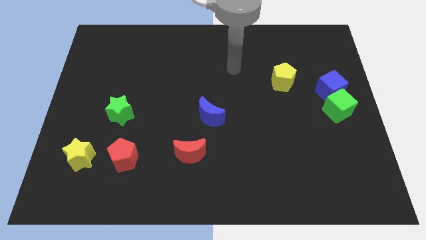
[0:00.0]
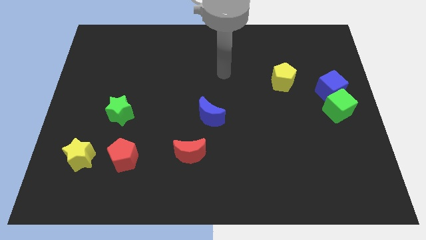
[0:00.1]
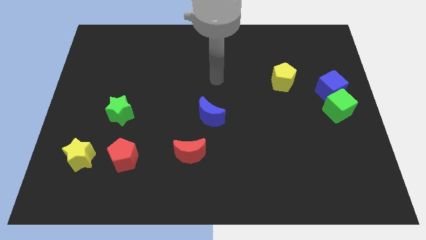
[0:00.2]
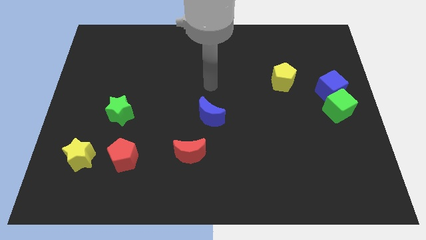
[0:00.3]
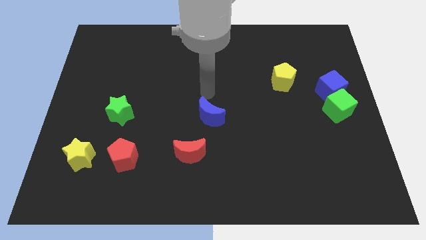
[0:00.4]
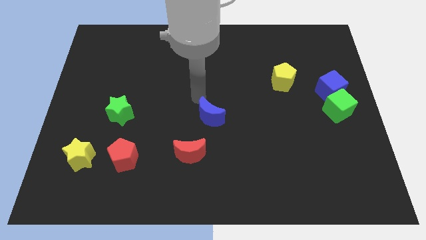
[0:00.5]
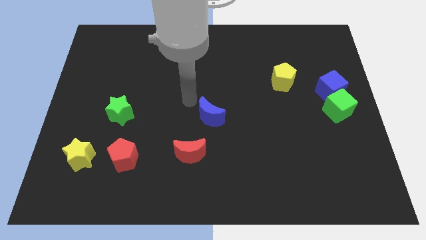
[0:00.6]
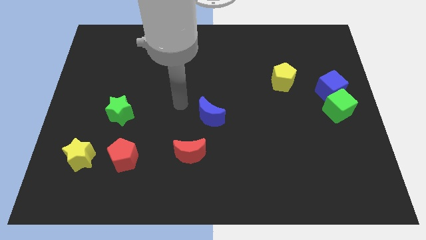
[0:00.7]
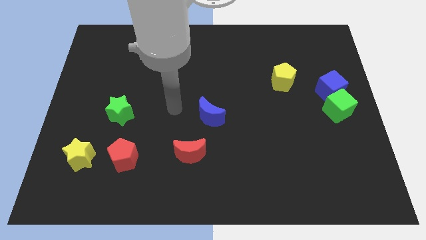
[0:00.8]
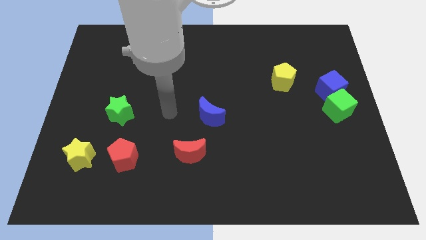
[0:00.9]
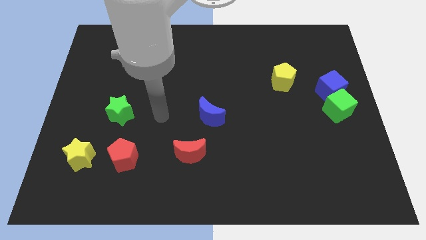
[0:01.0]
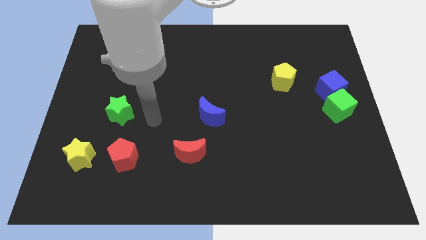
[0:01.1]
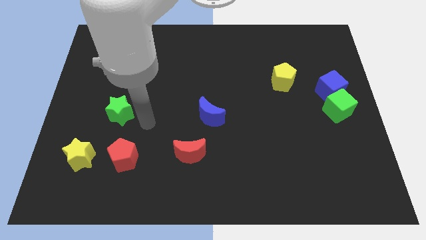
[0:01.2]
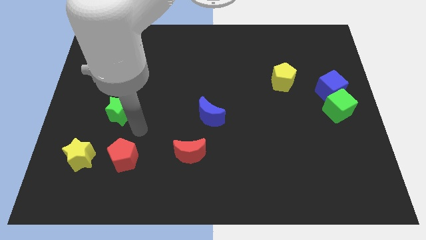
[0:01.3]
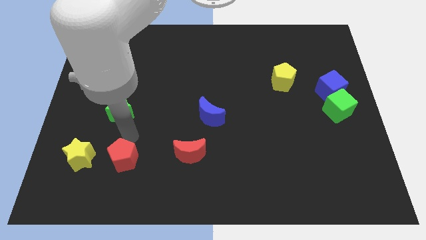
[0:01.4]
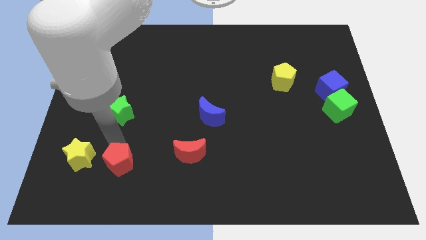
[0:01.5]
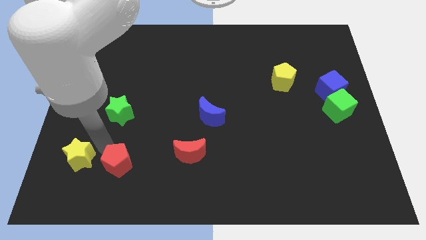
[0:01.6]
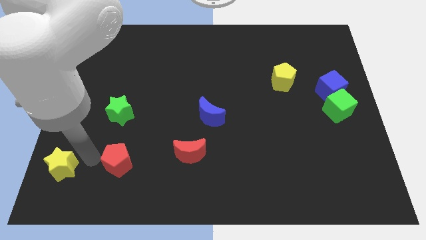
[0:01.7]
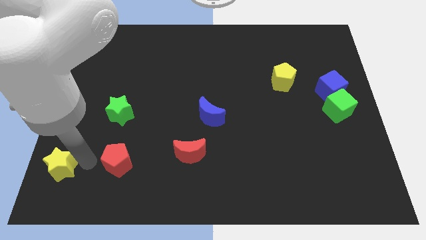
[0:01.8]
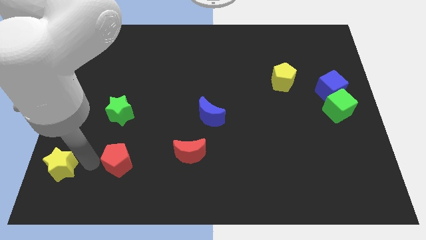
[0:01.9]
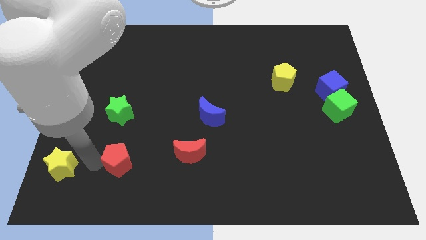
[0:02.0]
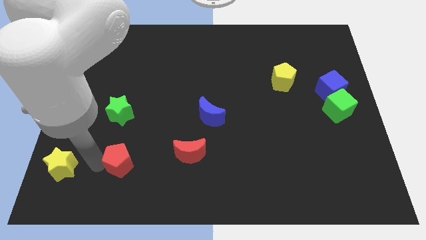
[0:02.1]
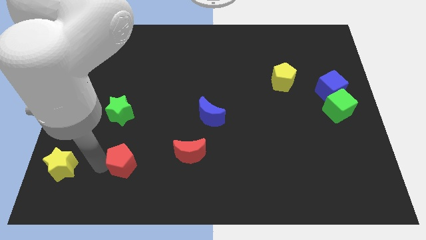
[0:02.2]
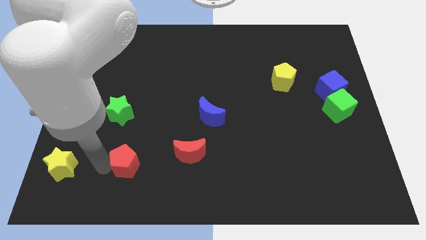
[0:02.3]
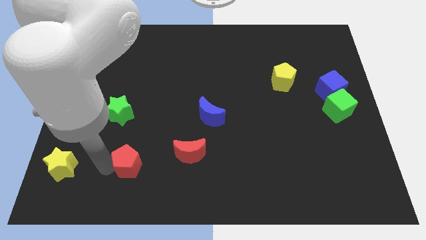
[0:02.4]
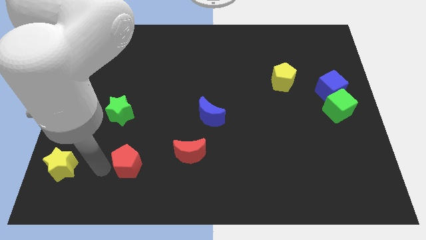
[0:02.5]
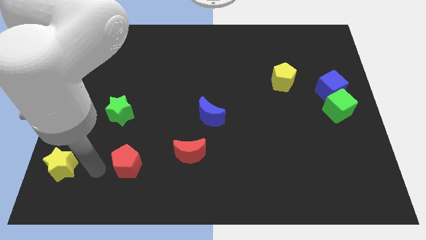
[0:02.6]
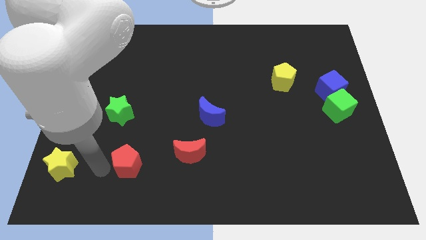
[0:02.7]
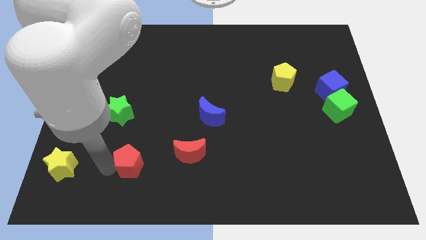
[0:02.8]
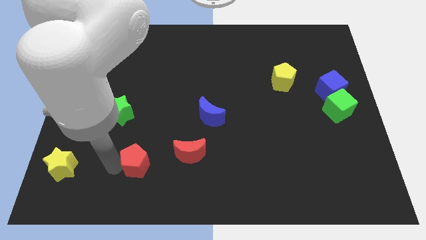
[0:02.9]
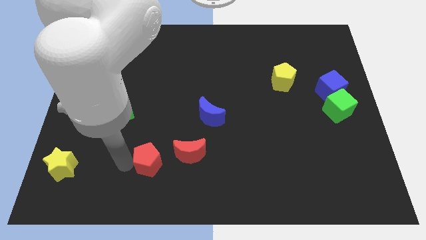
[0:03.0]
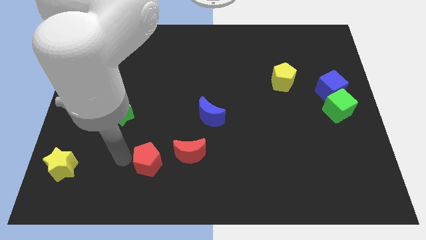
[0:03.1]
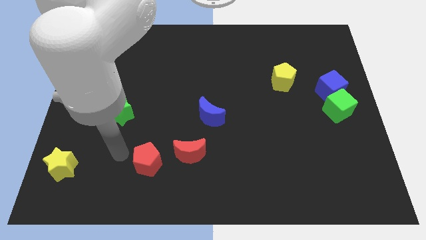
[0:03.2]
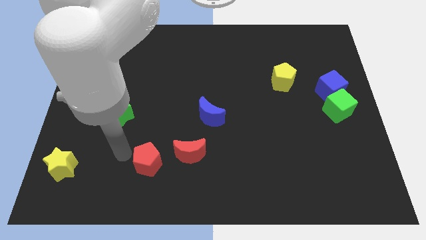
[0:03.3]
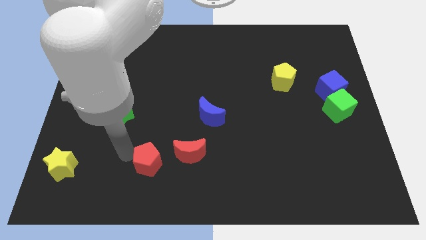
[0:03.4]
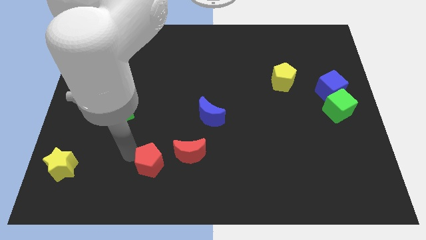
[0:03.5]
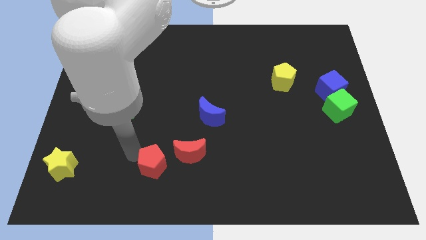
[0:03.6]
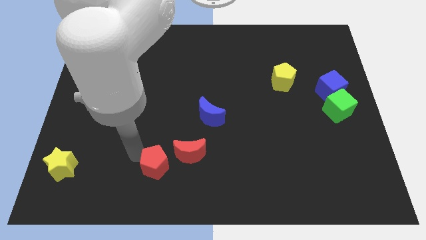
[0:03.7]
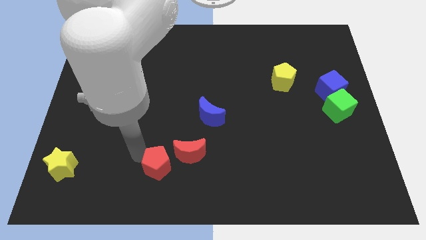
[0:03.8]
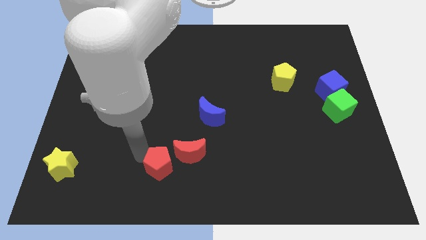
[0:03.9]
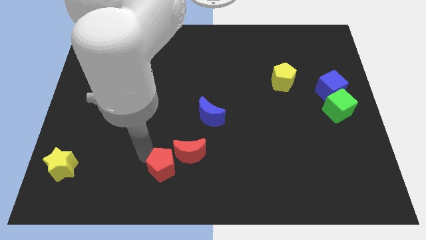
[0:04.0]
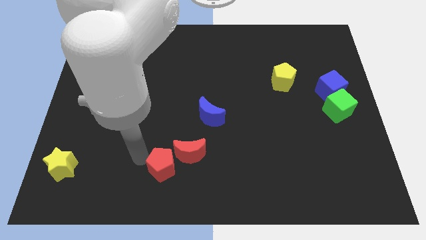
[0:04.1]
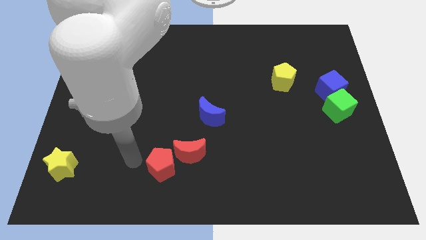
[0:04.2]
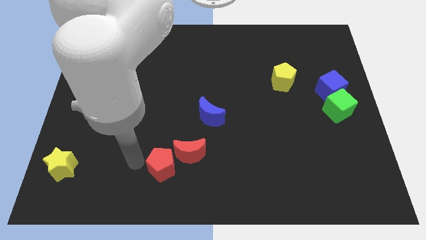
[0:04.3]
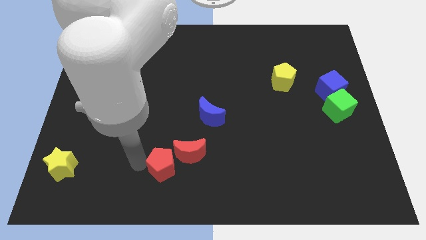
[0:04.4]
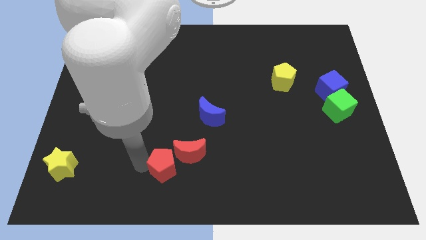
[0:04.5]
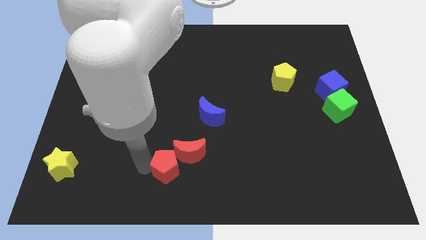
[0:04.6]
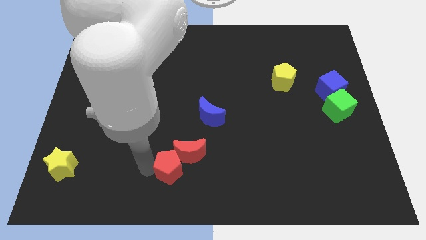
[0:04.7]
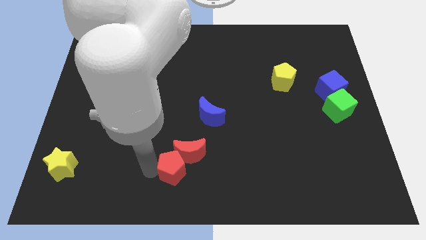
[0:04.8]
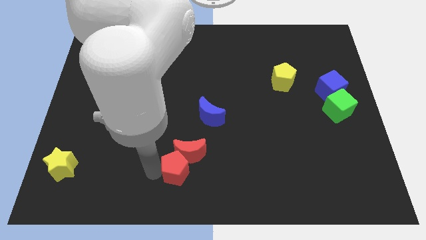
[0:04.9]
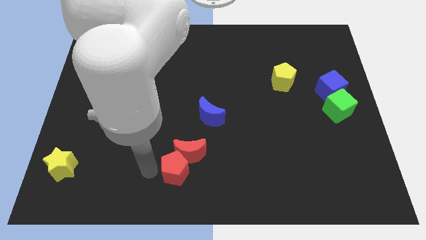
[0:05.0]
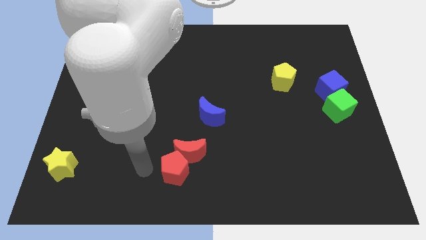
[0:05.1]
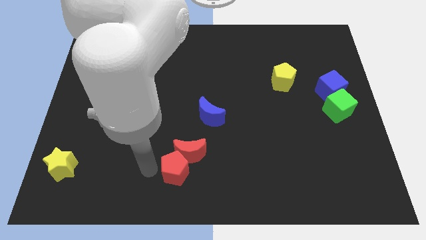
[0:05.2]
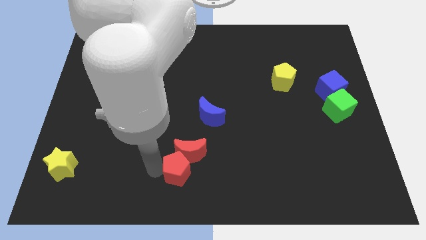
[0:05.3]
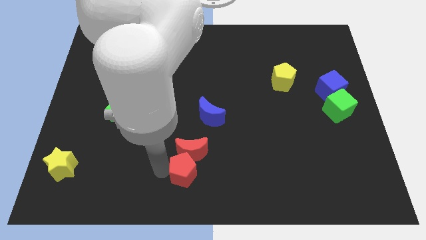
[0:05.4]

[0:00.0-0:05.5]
move the red pentagon to the bottom right side of the red moon

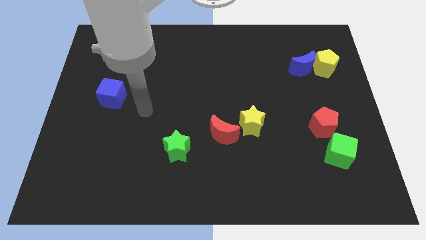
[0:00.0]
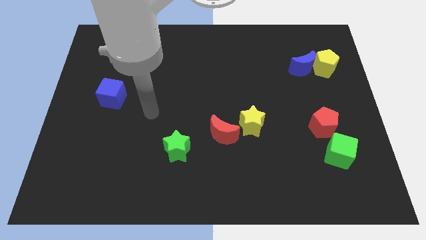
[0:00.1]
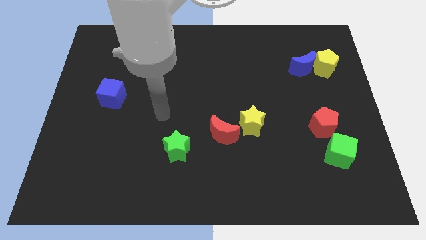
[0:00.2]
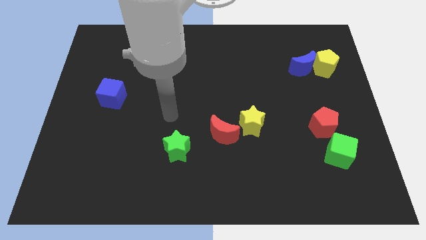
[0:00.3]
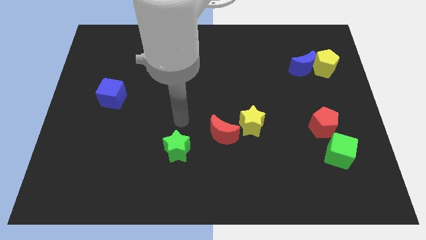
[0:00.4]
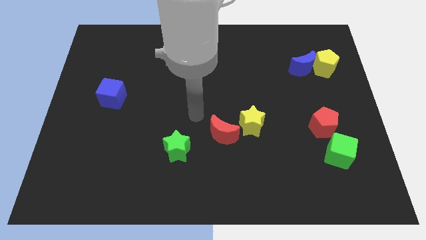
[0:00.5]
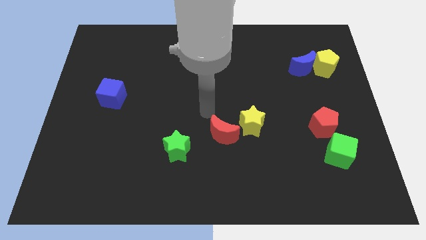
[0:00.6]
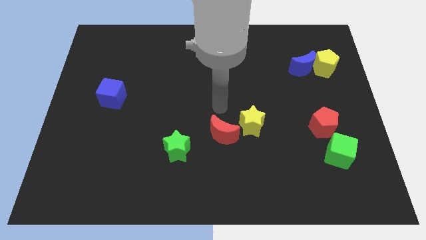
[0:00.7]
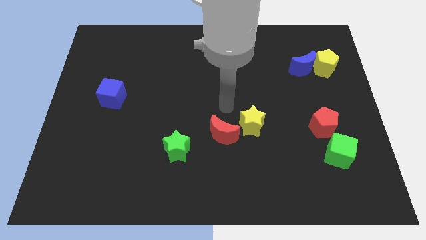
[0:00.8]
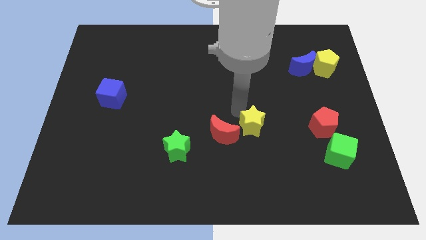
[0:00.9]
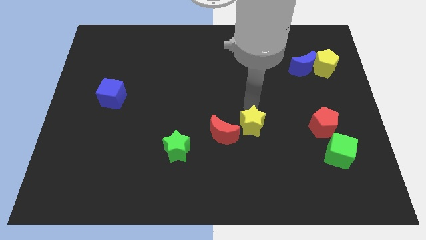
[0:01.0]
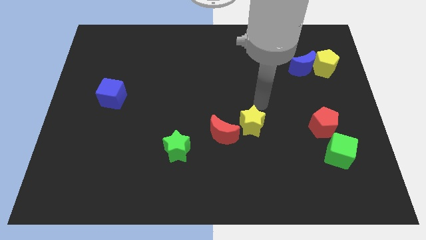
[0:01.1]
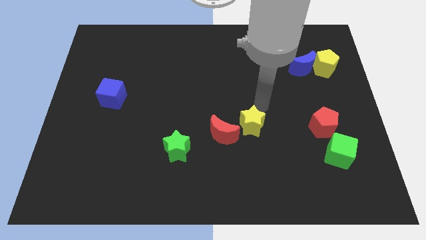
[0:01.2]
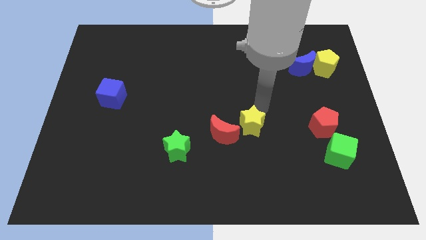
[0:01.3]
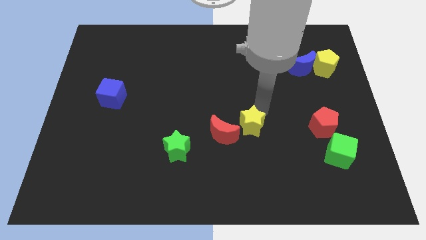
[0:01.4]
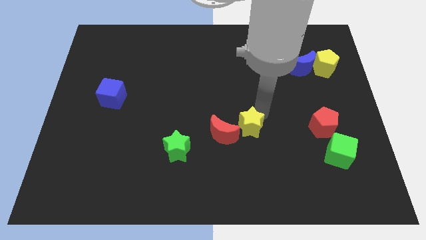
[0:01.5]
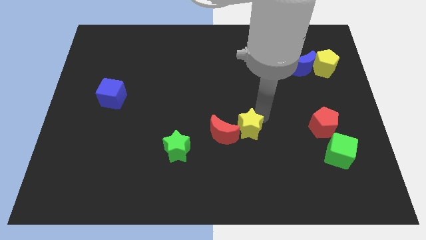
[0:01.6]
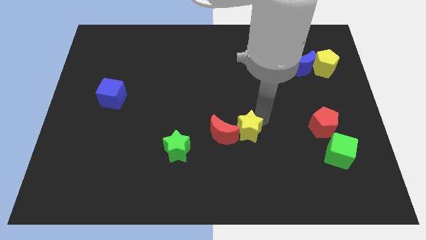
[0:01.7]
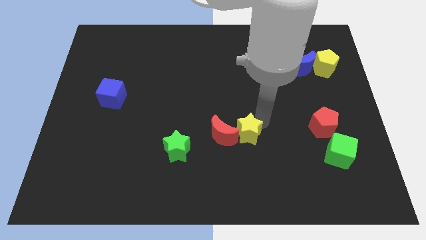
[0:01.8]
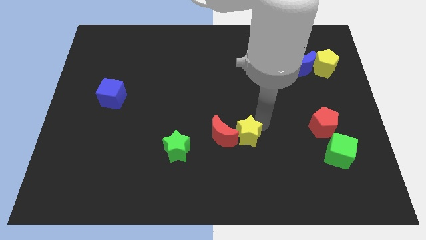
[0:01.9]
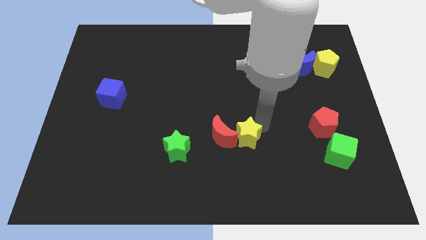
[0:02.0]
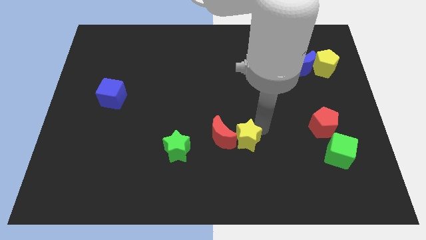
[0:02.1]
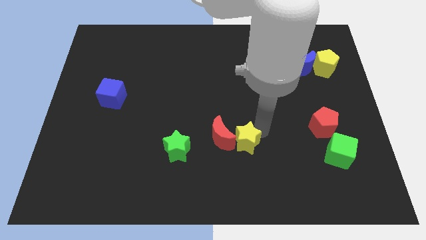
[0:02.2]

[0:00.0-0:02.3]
move the yellow star right of the green star
